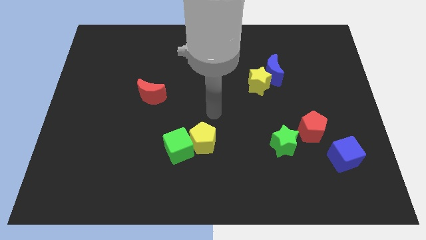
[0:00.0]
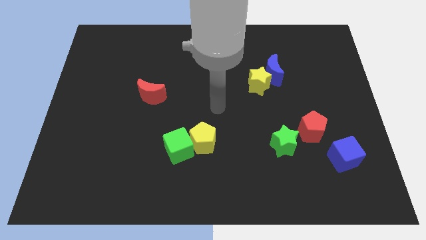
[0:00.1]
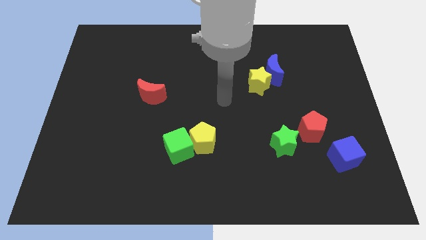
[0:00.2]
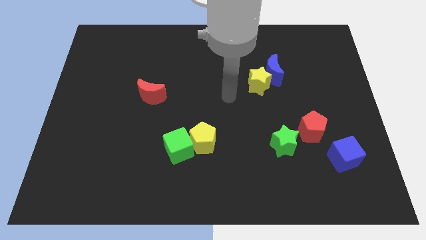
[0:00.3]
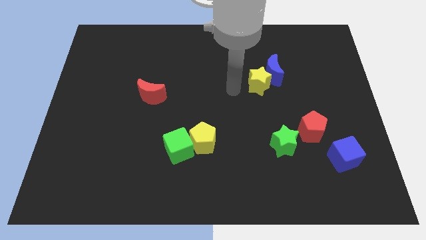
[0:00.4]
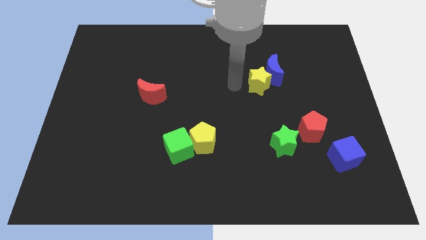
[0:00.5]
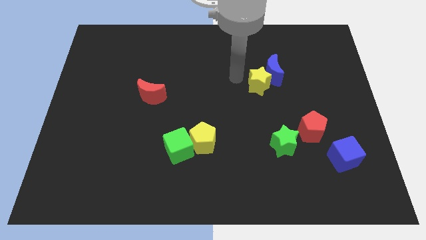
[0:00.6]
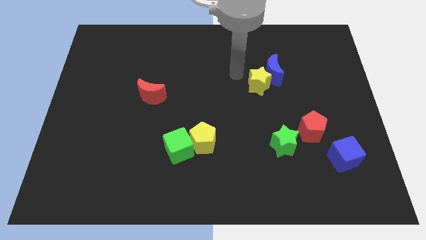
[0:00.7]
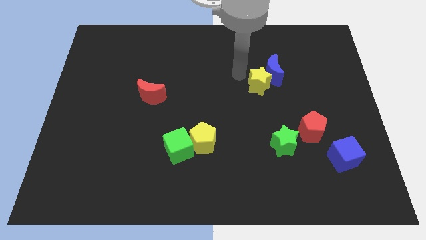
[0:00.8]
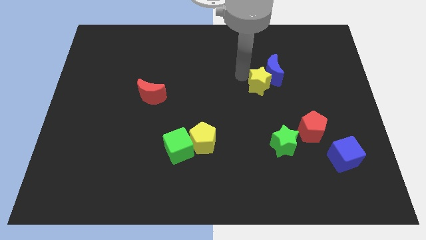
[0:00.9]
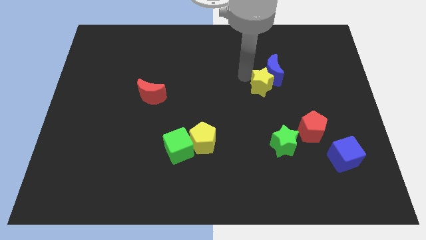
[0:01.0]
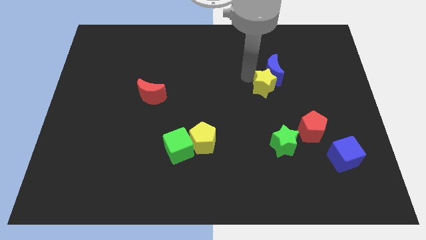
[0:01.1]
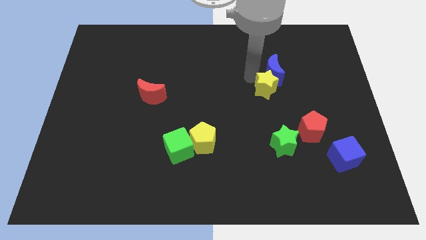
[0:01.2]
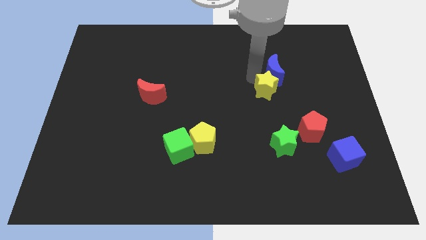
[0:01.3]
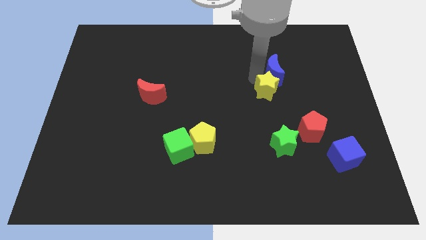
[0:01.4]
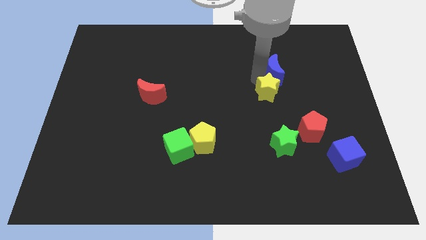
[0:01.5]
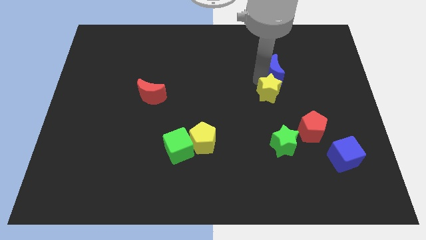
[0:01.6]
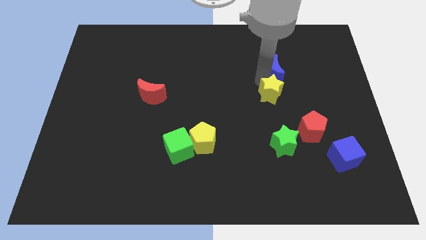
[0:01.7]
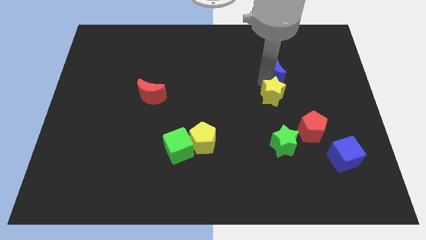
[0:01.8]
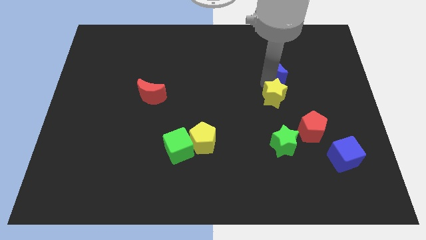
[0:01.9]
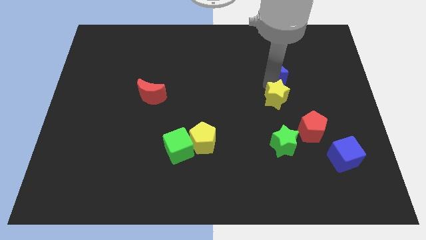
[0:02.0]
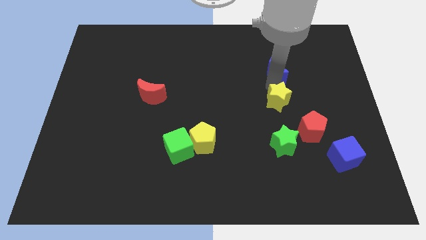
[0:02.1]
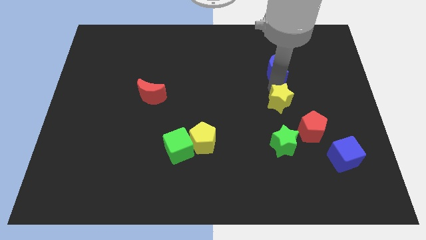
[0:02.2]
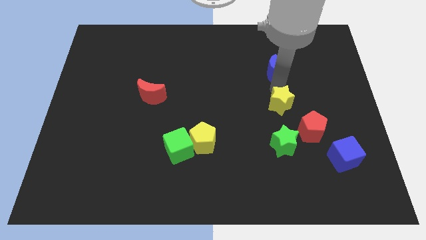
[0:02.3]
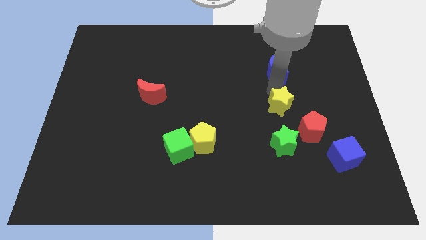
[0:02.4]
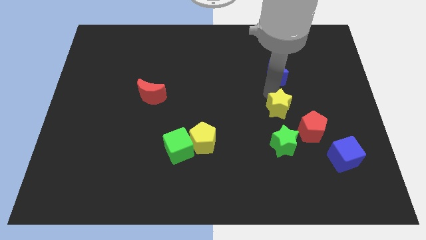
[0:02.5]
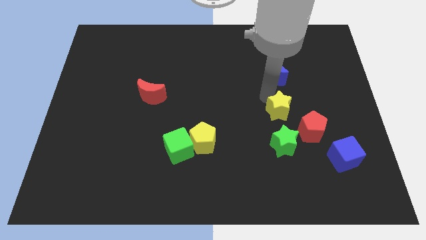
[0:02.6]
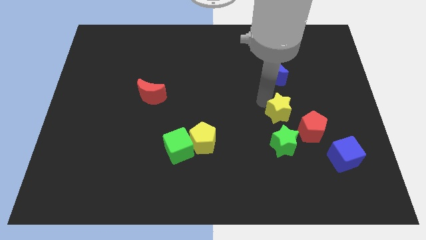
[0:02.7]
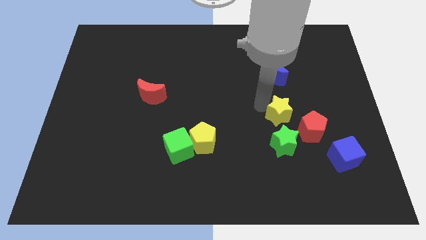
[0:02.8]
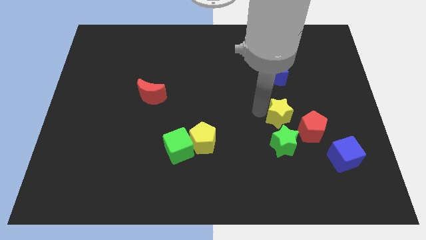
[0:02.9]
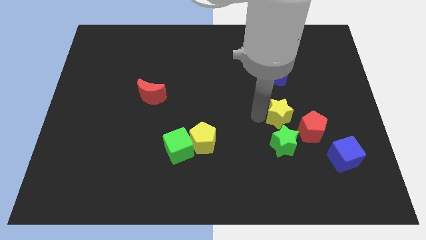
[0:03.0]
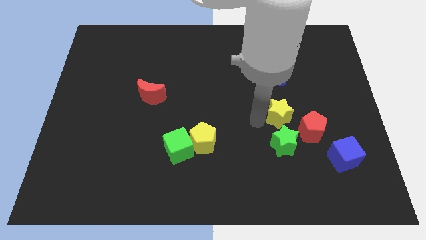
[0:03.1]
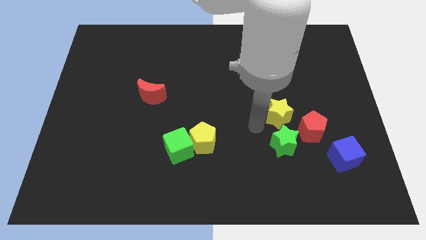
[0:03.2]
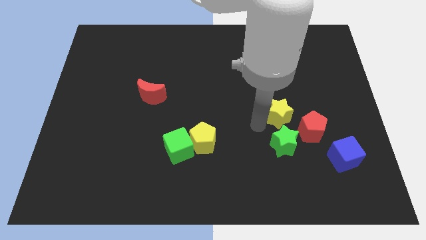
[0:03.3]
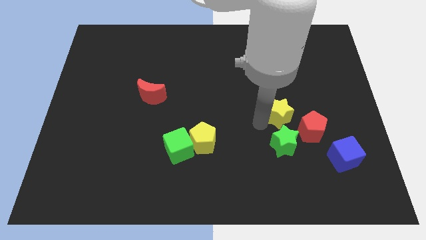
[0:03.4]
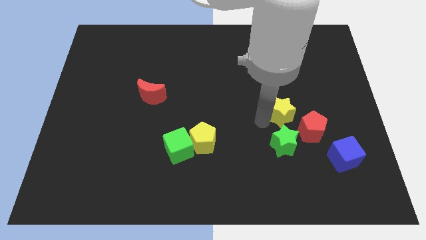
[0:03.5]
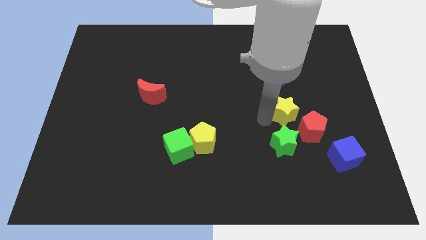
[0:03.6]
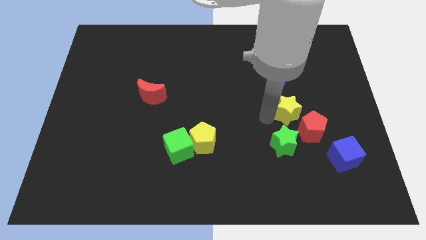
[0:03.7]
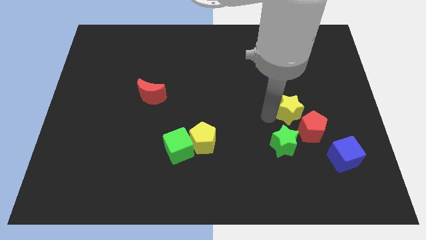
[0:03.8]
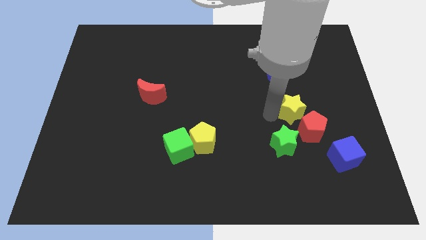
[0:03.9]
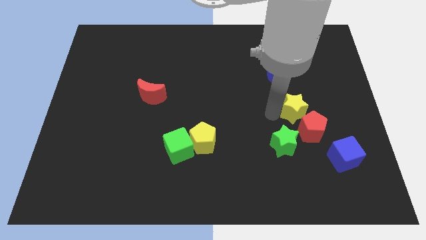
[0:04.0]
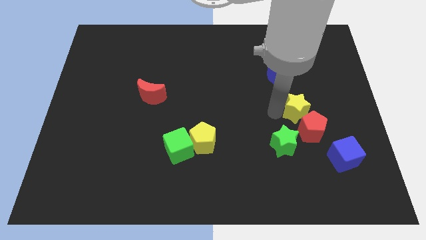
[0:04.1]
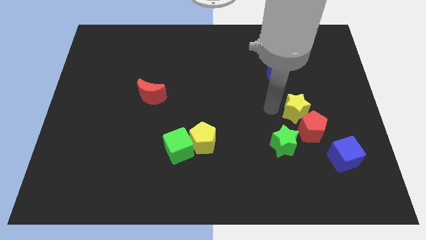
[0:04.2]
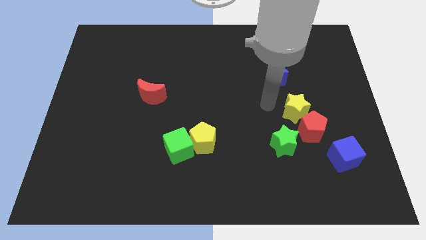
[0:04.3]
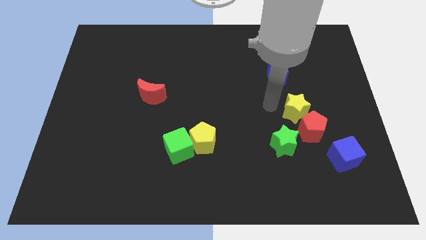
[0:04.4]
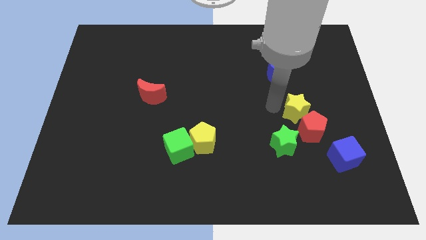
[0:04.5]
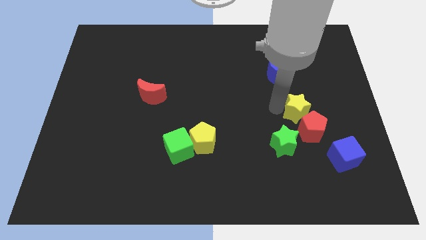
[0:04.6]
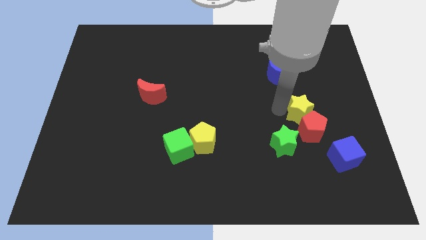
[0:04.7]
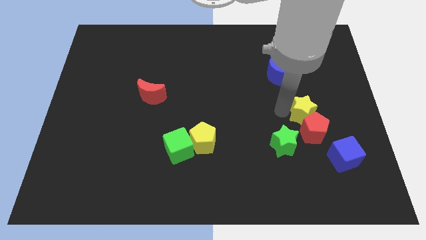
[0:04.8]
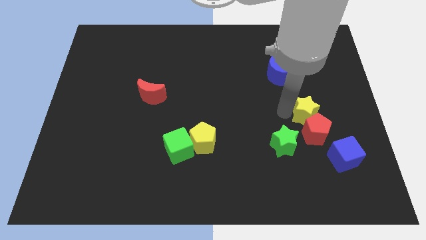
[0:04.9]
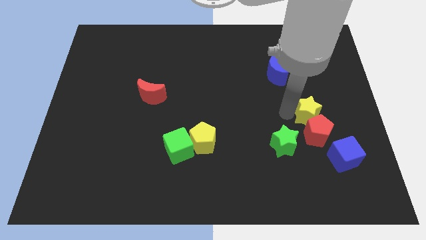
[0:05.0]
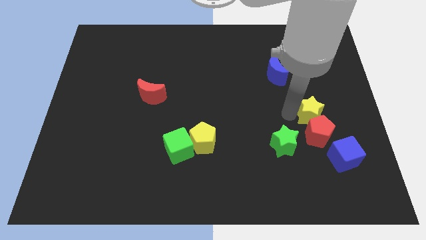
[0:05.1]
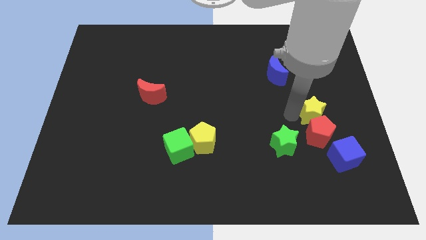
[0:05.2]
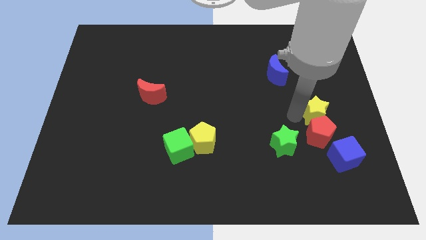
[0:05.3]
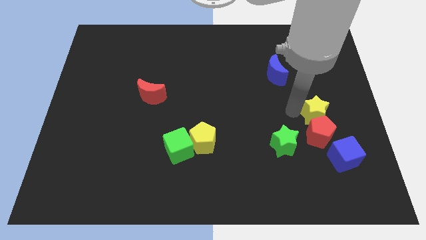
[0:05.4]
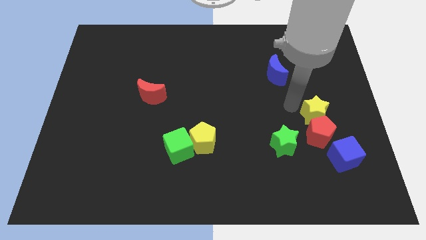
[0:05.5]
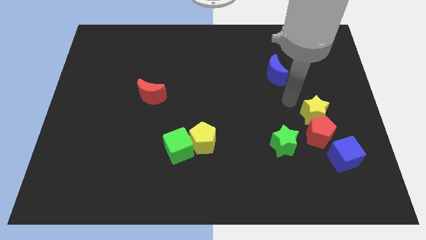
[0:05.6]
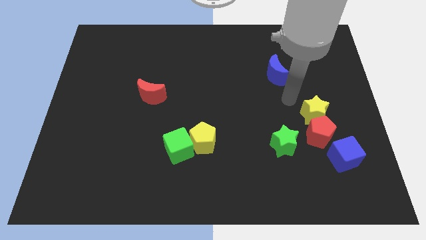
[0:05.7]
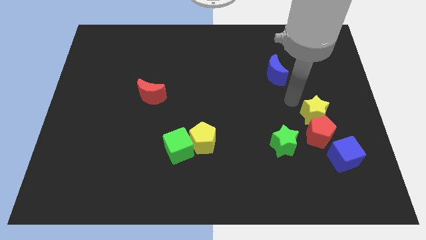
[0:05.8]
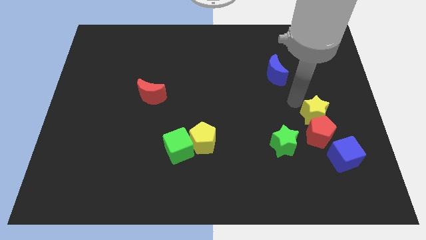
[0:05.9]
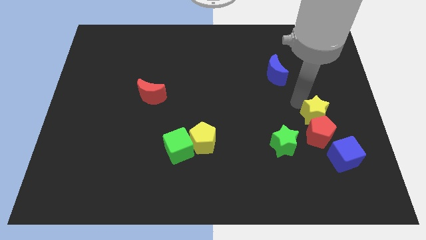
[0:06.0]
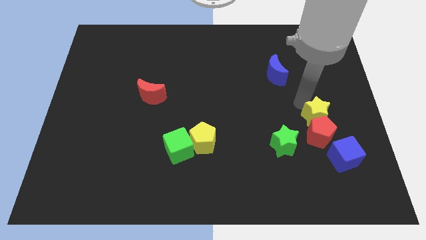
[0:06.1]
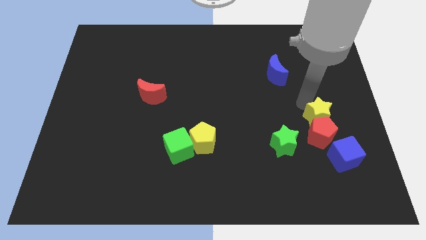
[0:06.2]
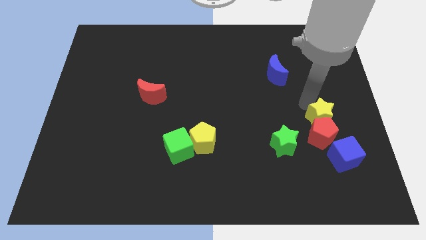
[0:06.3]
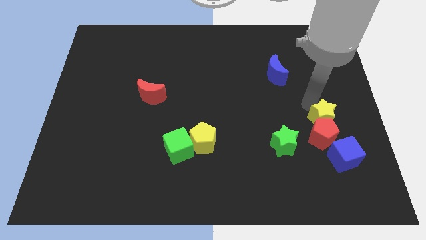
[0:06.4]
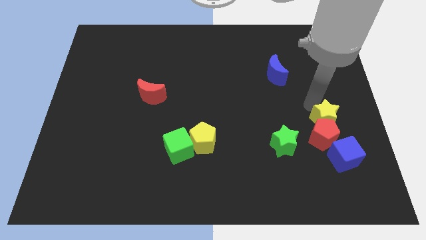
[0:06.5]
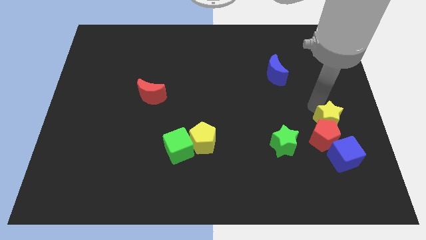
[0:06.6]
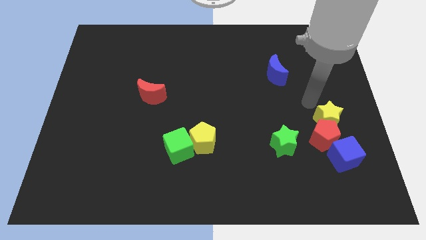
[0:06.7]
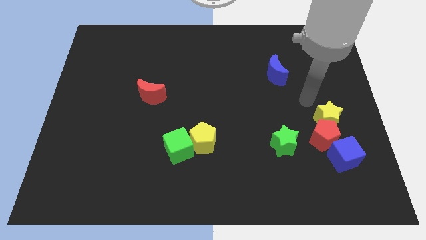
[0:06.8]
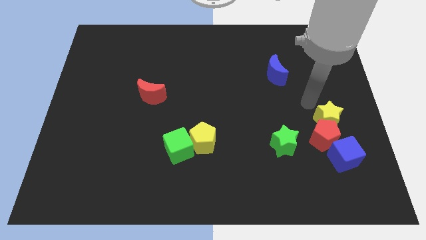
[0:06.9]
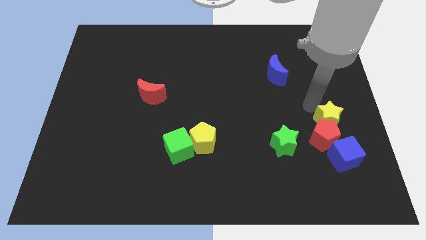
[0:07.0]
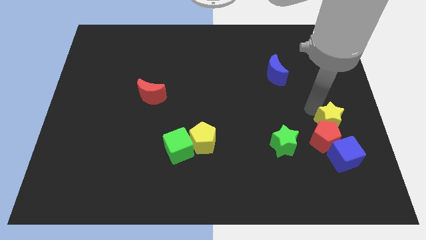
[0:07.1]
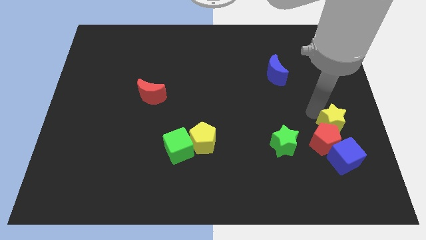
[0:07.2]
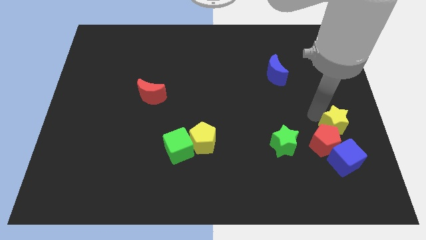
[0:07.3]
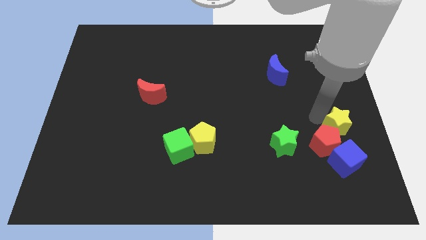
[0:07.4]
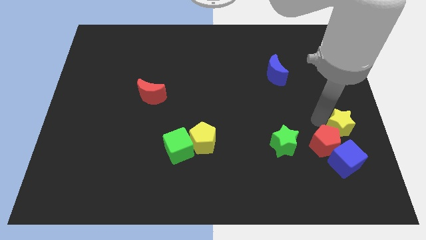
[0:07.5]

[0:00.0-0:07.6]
slide the yellow star to the right side of the green star
